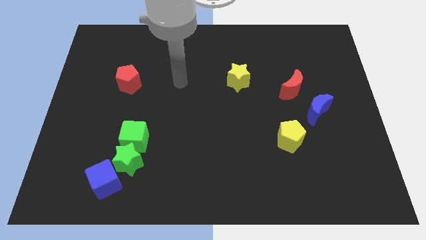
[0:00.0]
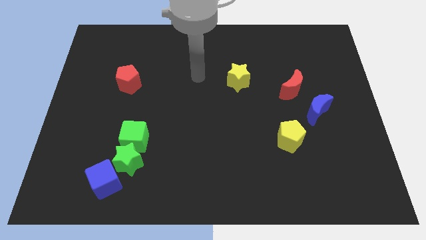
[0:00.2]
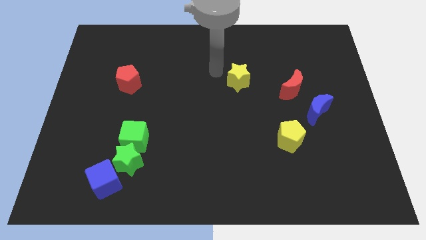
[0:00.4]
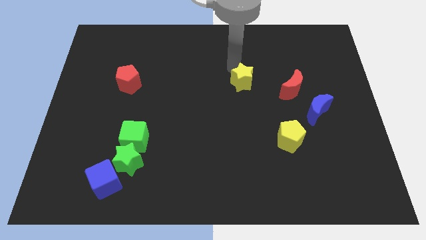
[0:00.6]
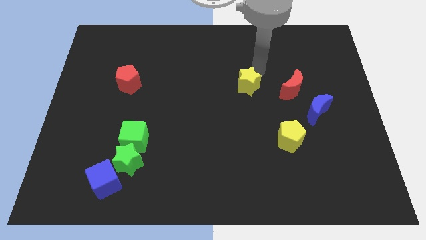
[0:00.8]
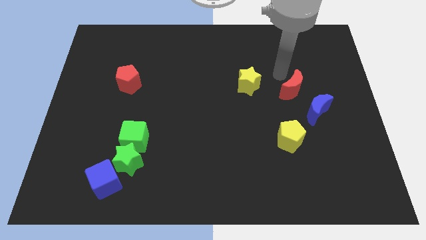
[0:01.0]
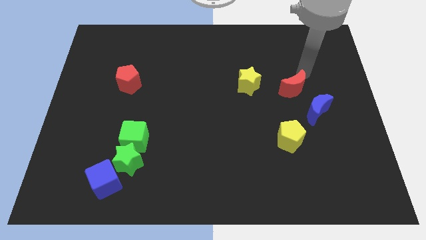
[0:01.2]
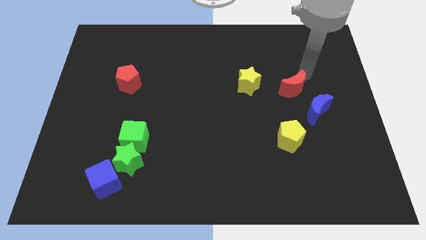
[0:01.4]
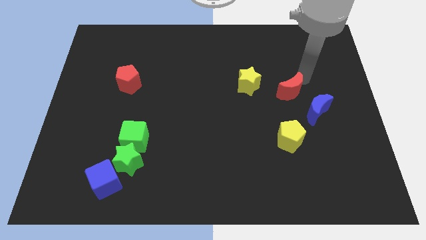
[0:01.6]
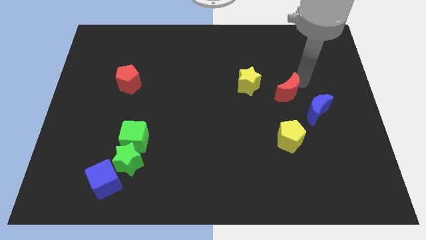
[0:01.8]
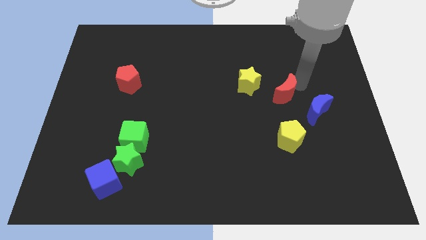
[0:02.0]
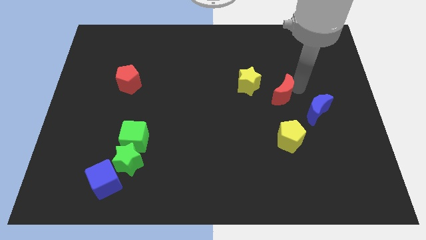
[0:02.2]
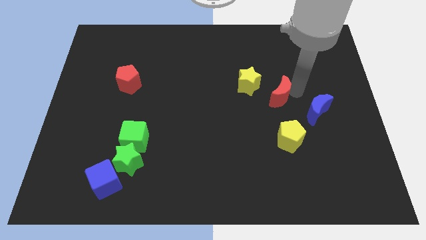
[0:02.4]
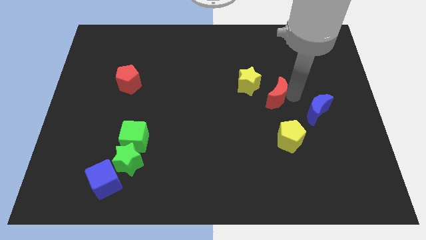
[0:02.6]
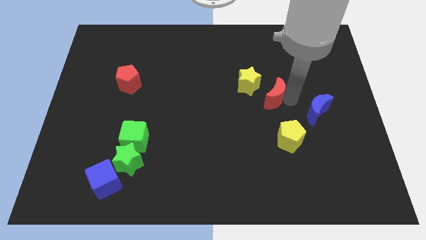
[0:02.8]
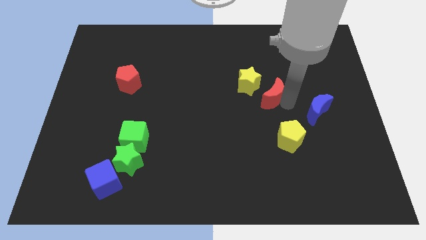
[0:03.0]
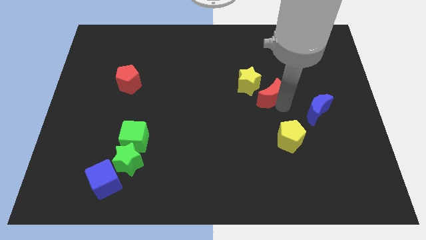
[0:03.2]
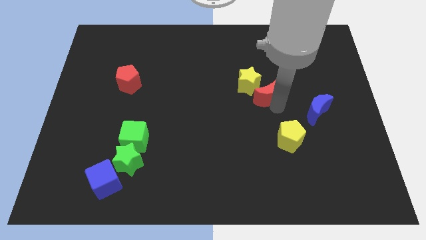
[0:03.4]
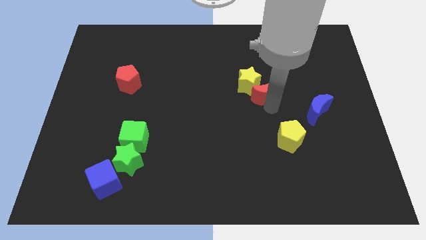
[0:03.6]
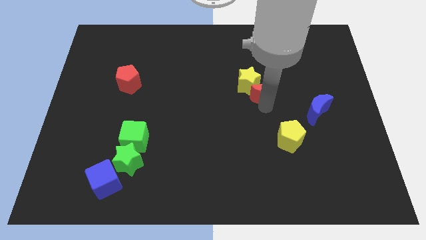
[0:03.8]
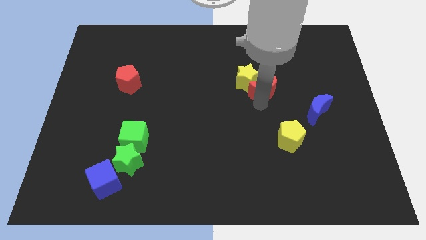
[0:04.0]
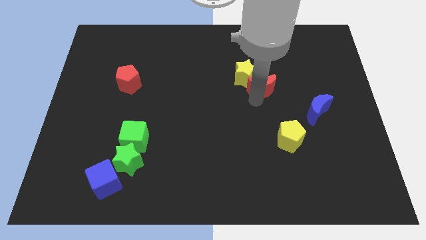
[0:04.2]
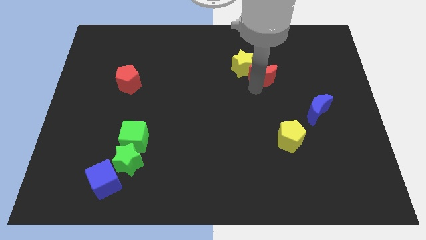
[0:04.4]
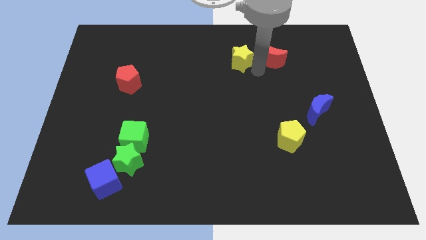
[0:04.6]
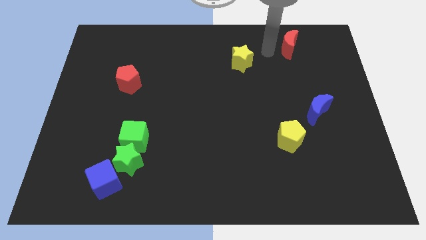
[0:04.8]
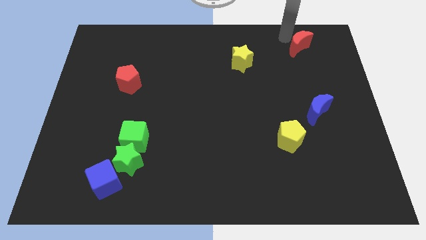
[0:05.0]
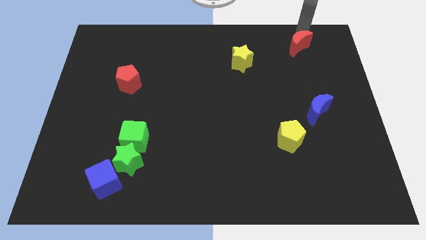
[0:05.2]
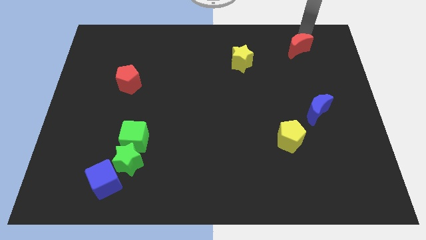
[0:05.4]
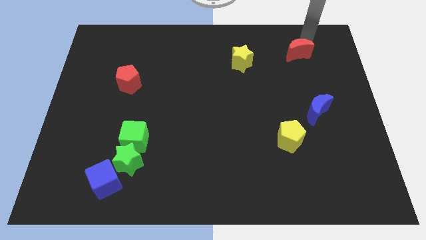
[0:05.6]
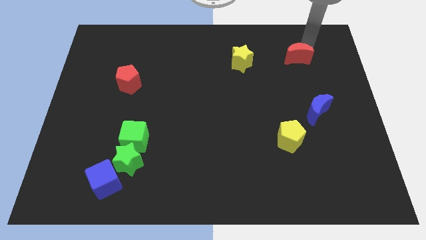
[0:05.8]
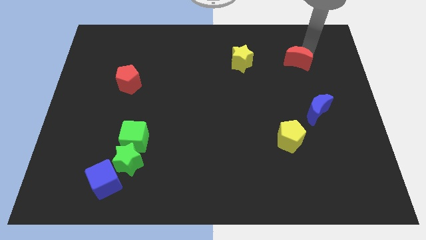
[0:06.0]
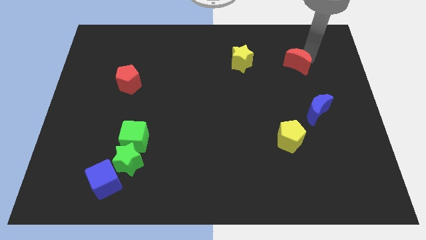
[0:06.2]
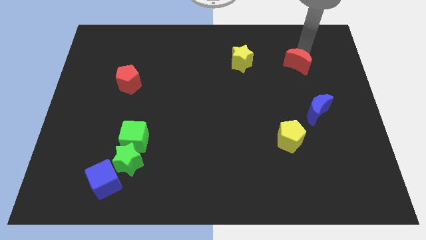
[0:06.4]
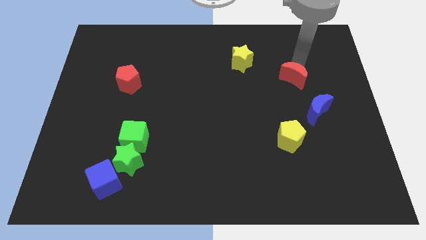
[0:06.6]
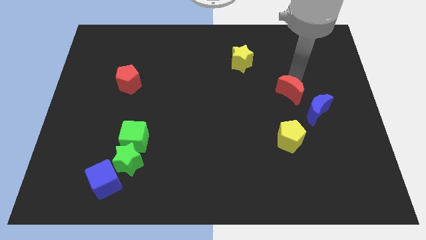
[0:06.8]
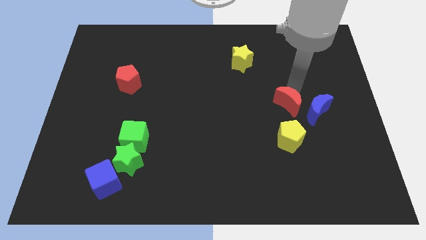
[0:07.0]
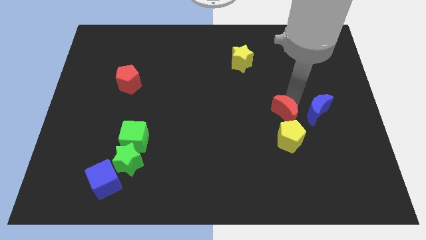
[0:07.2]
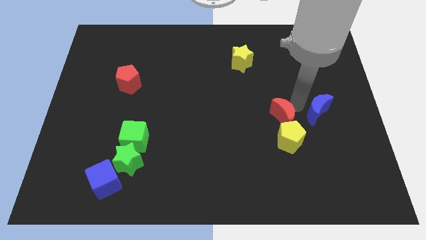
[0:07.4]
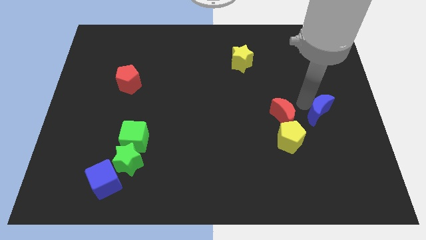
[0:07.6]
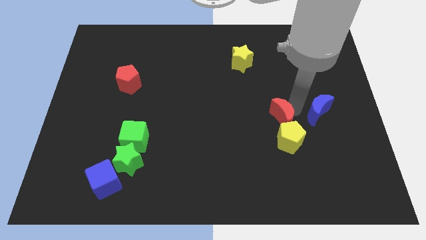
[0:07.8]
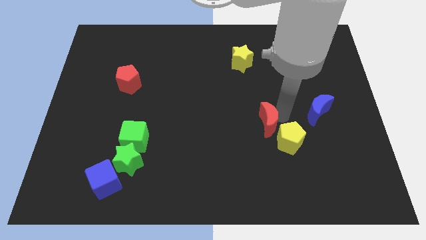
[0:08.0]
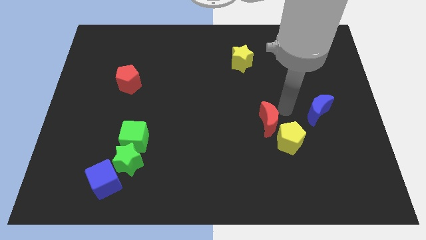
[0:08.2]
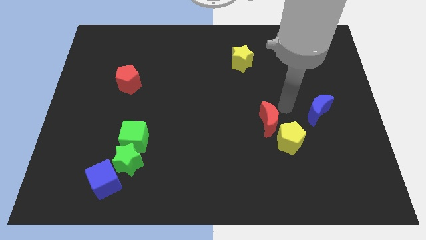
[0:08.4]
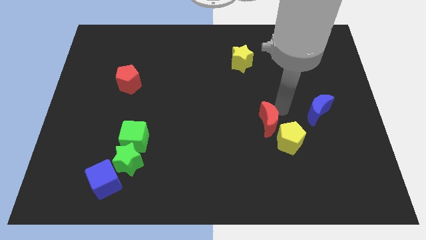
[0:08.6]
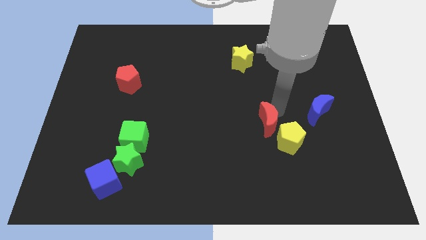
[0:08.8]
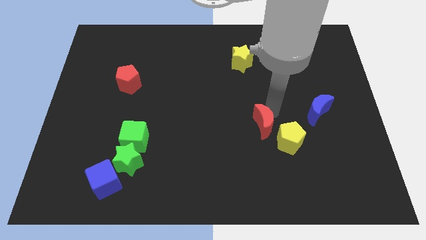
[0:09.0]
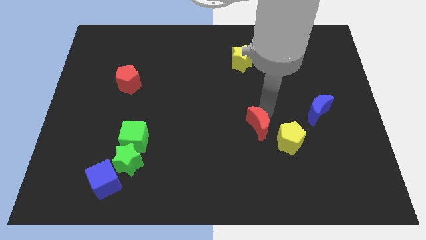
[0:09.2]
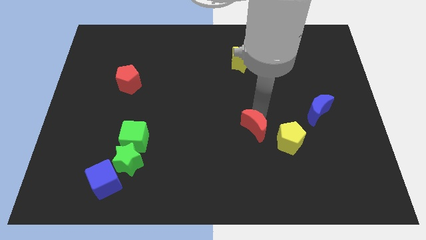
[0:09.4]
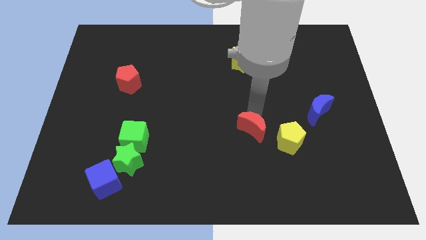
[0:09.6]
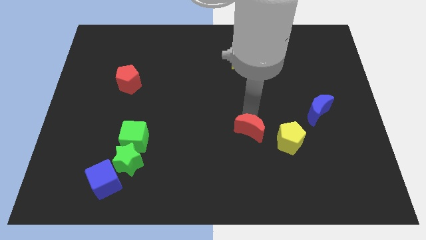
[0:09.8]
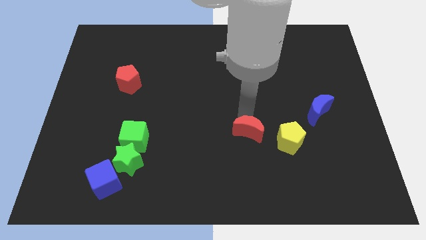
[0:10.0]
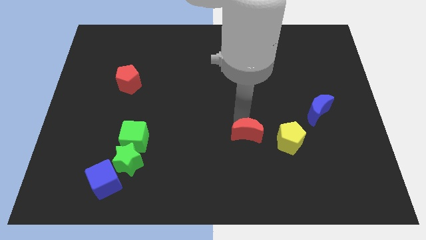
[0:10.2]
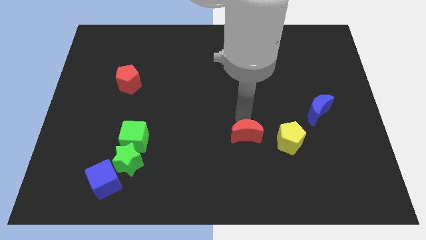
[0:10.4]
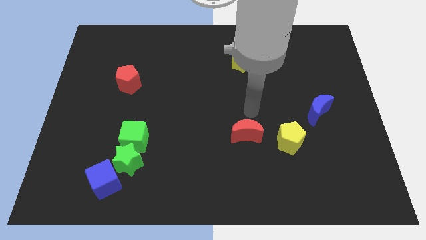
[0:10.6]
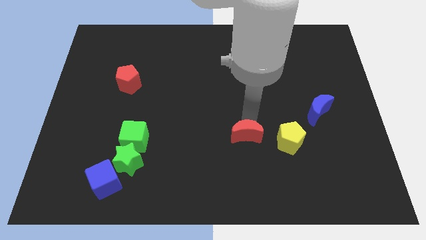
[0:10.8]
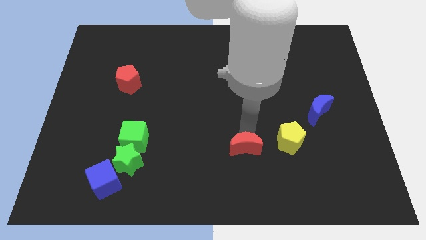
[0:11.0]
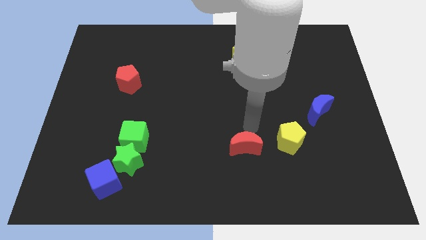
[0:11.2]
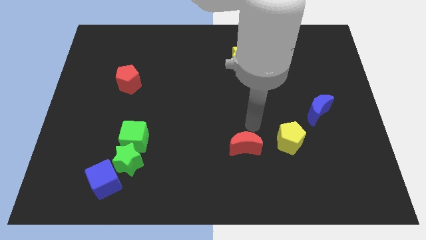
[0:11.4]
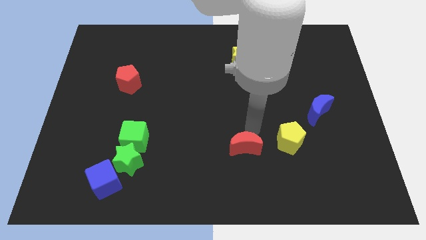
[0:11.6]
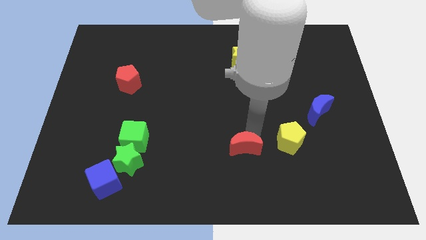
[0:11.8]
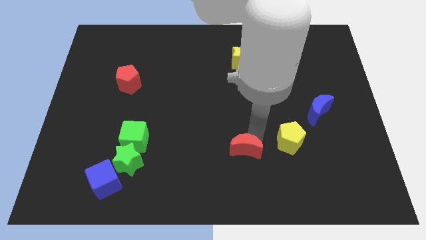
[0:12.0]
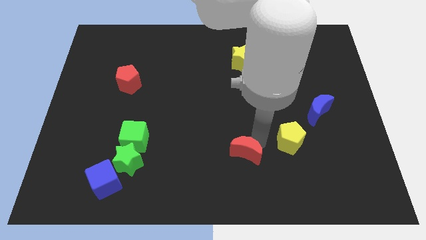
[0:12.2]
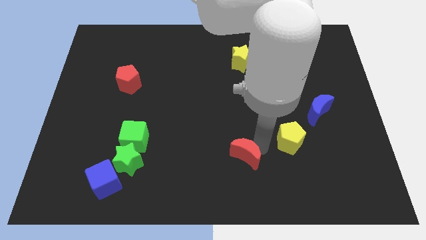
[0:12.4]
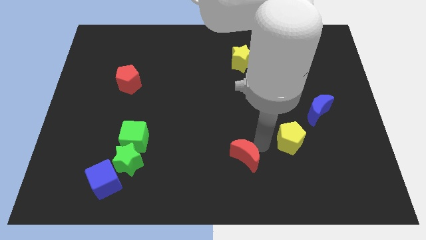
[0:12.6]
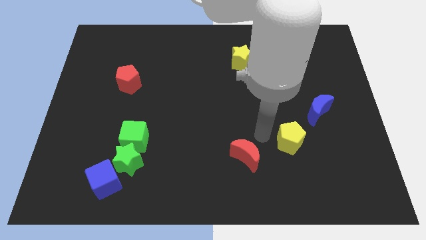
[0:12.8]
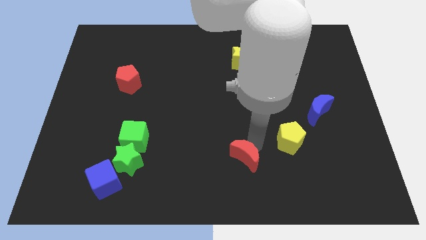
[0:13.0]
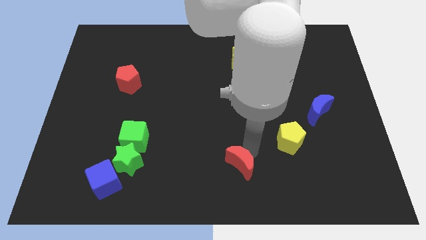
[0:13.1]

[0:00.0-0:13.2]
push the red moon to the bottom
